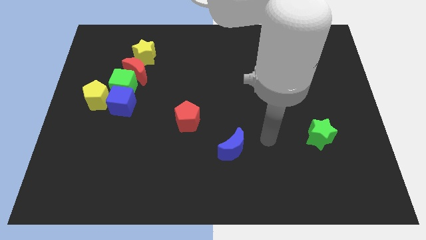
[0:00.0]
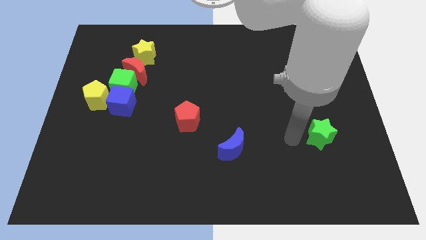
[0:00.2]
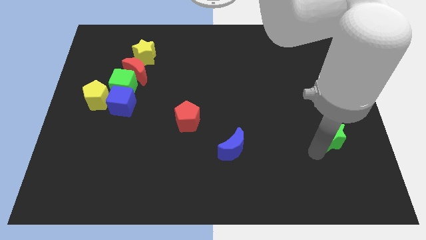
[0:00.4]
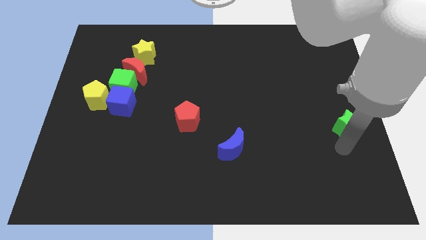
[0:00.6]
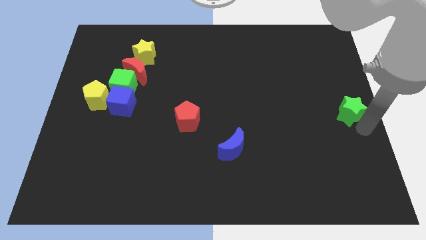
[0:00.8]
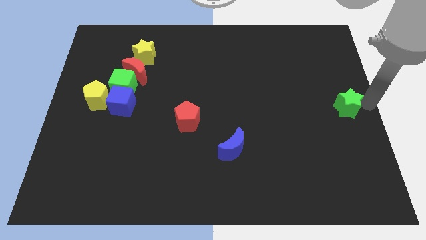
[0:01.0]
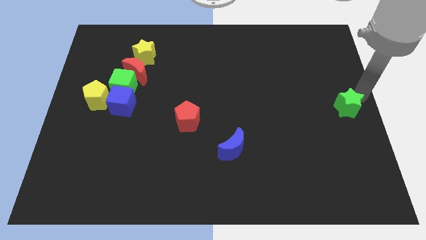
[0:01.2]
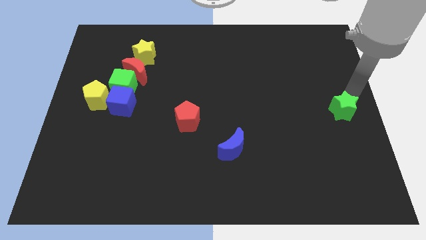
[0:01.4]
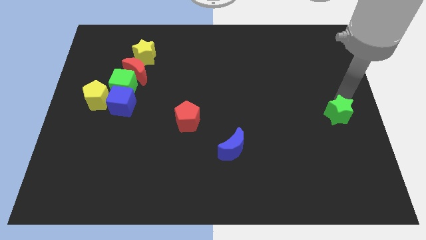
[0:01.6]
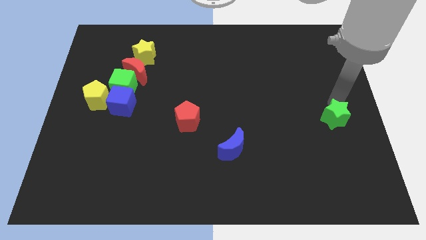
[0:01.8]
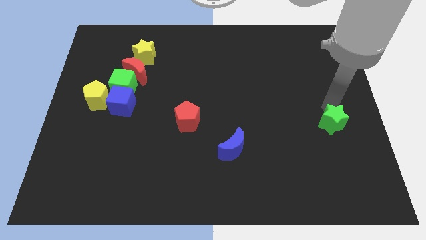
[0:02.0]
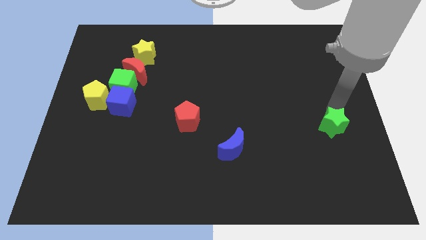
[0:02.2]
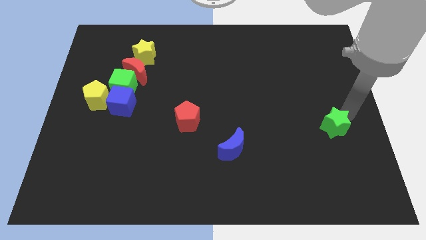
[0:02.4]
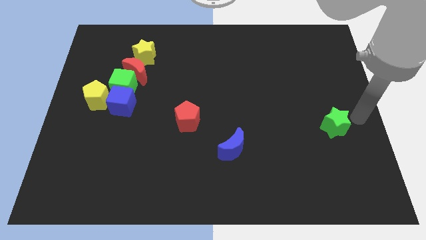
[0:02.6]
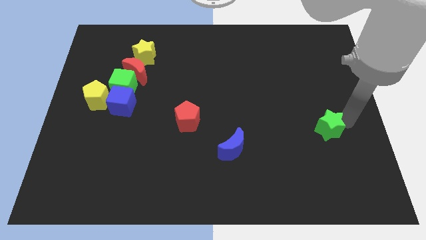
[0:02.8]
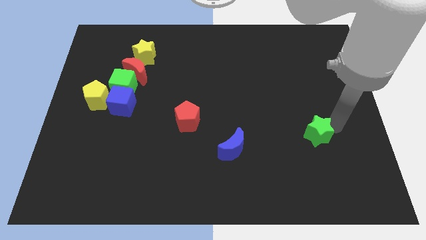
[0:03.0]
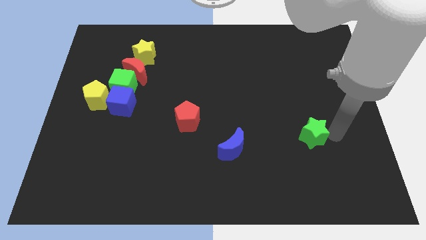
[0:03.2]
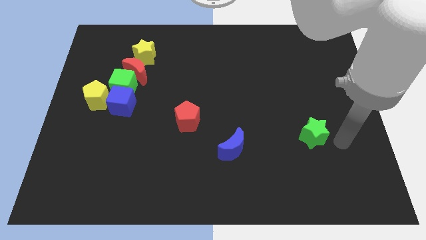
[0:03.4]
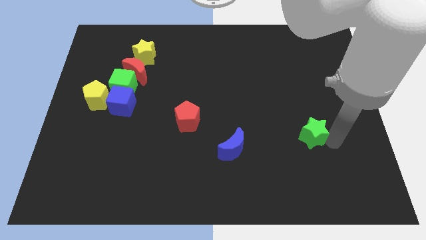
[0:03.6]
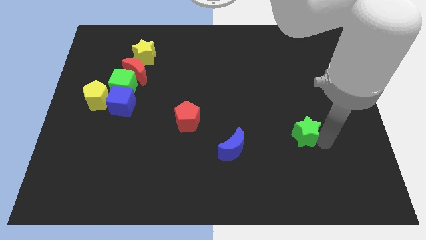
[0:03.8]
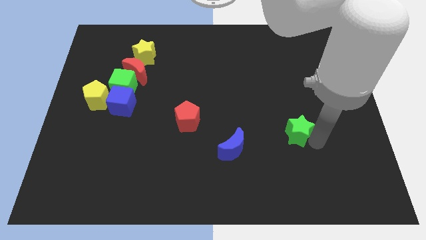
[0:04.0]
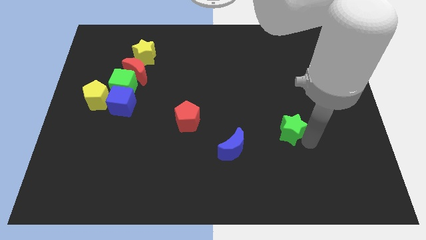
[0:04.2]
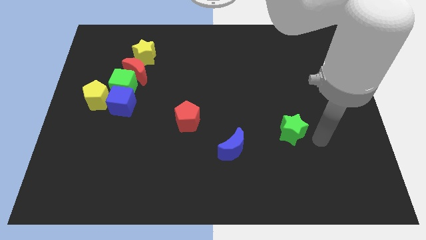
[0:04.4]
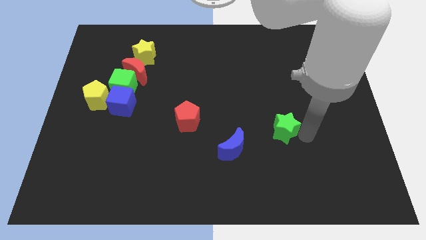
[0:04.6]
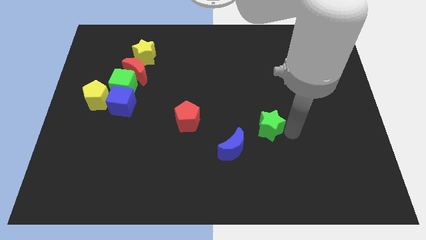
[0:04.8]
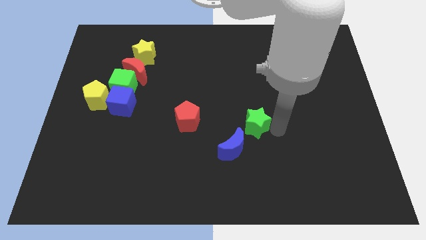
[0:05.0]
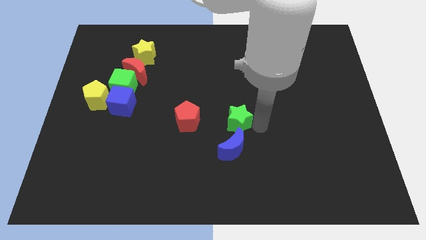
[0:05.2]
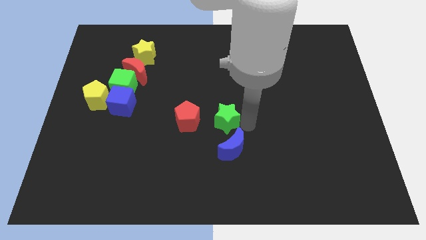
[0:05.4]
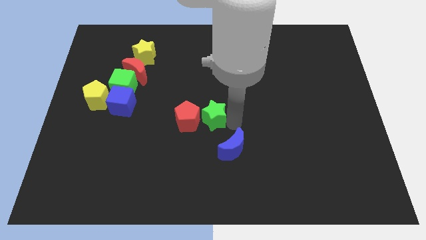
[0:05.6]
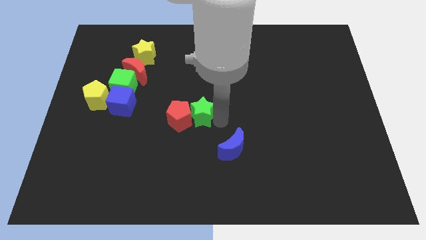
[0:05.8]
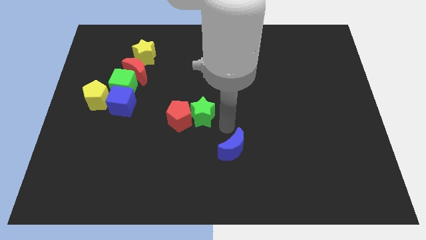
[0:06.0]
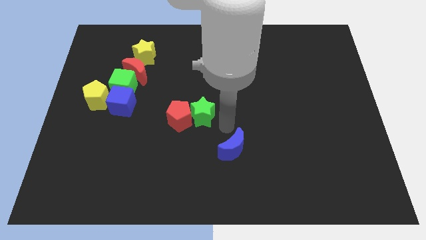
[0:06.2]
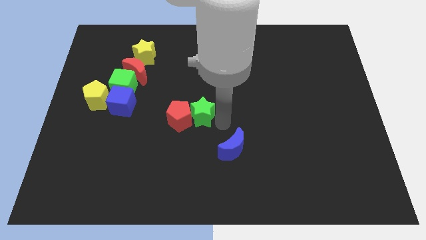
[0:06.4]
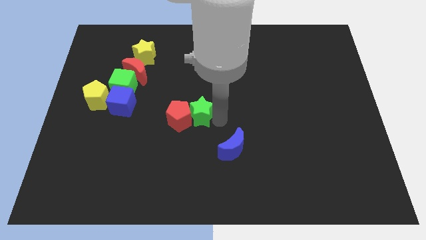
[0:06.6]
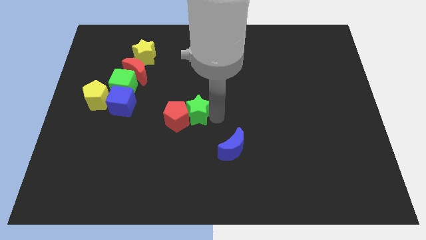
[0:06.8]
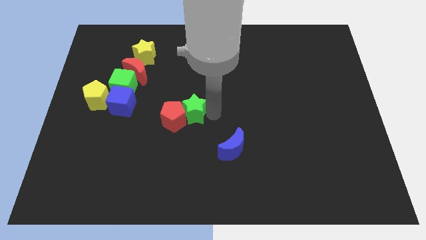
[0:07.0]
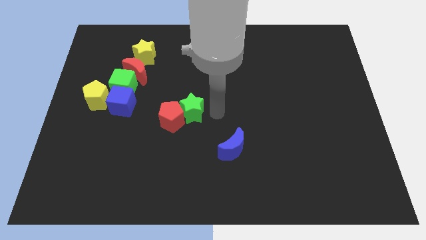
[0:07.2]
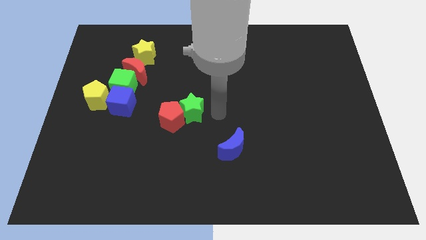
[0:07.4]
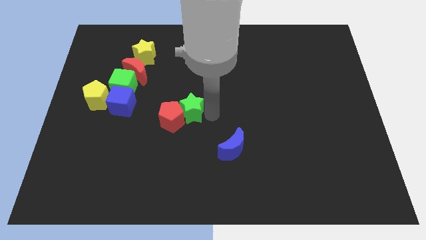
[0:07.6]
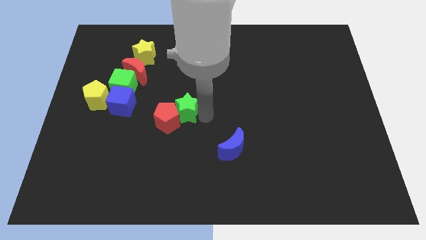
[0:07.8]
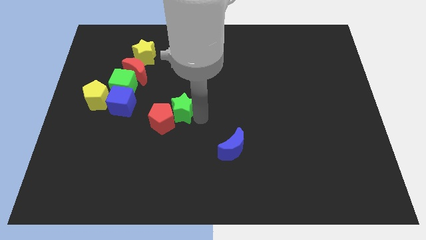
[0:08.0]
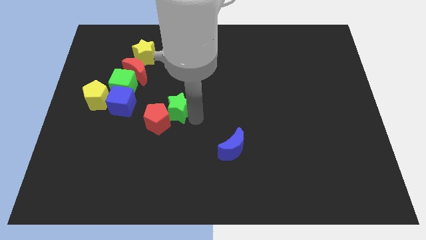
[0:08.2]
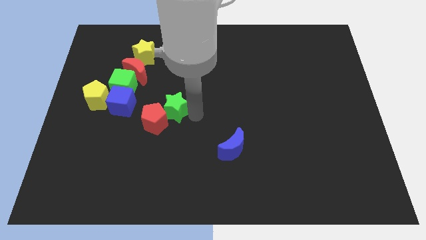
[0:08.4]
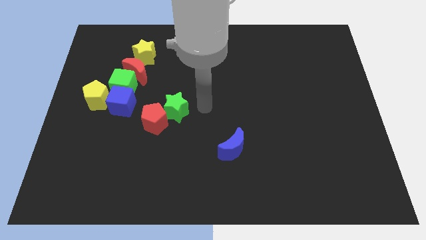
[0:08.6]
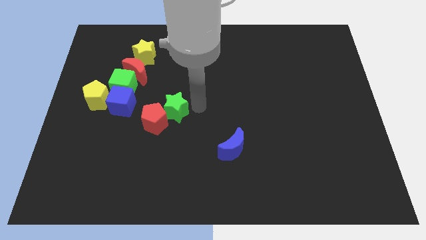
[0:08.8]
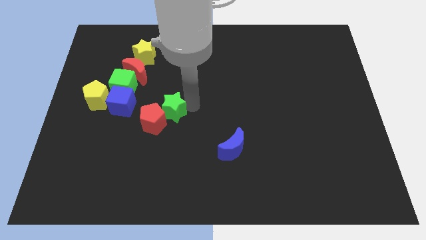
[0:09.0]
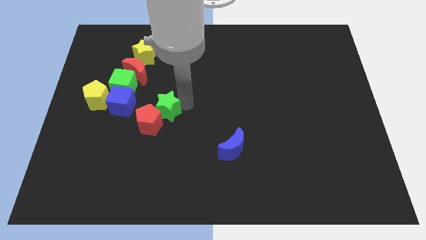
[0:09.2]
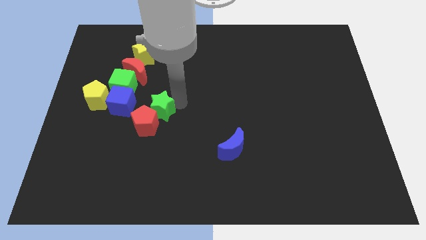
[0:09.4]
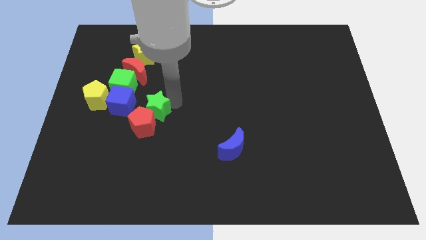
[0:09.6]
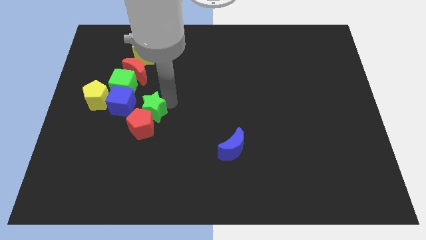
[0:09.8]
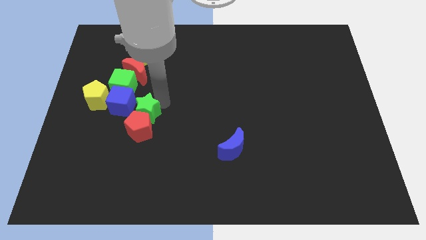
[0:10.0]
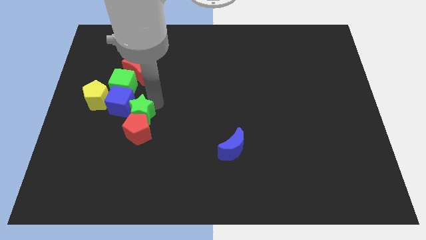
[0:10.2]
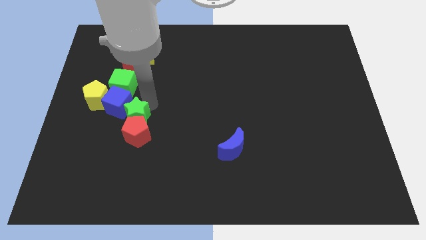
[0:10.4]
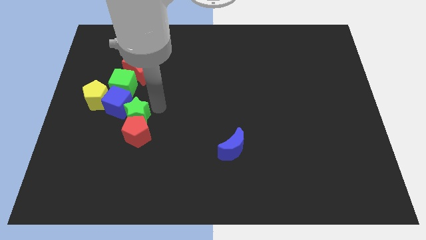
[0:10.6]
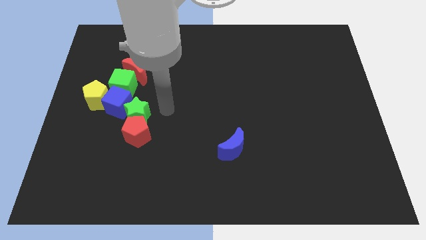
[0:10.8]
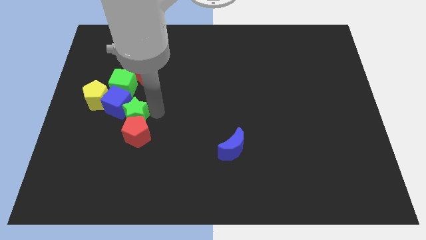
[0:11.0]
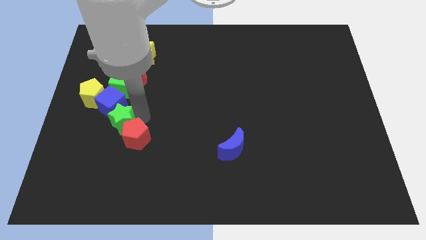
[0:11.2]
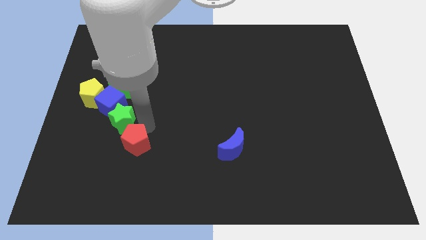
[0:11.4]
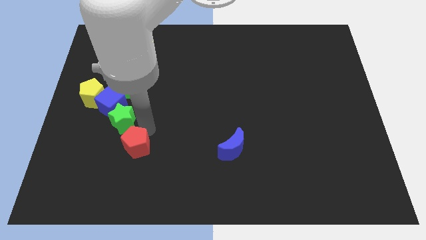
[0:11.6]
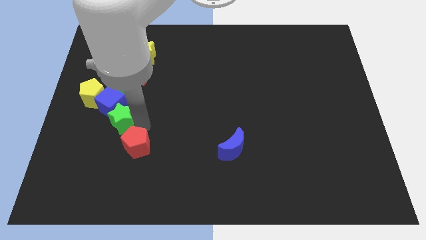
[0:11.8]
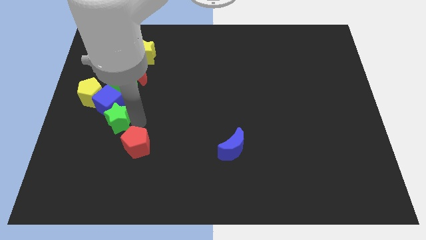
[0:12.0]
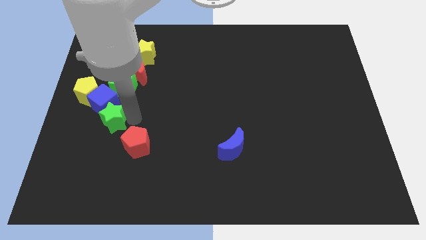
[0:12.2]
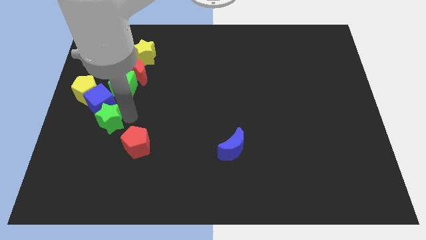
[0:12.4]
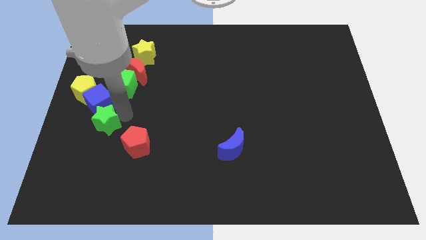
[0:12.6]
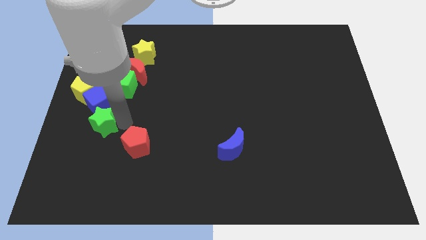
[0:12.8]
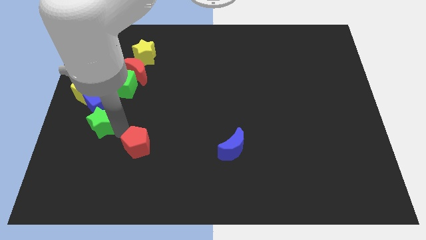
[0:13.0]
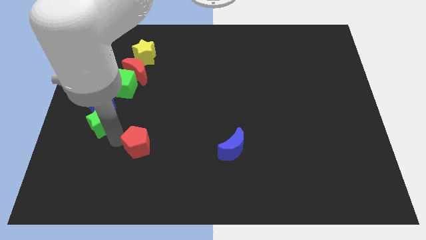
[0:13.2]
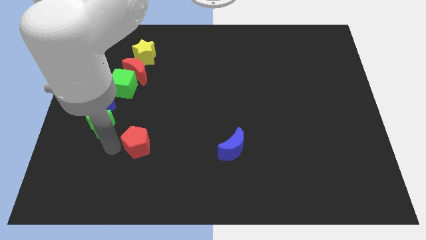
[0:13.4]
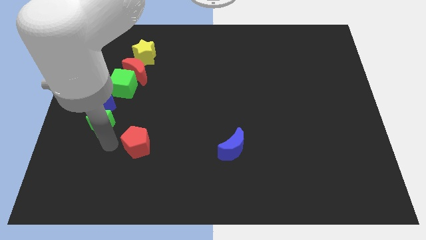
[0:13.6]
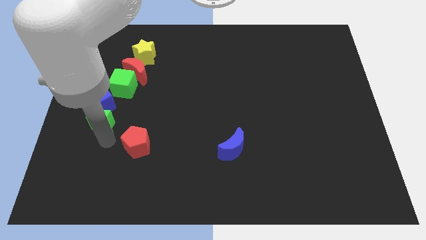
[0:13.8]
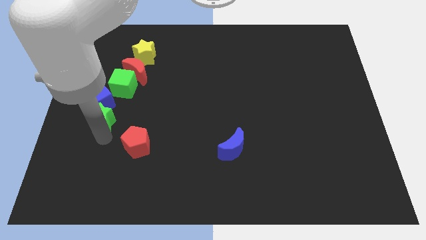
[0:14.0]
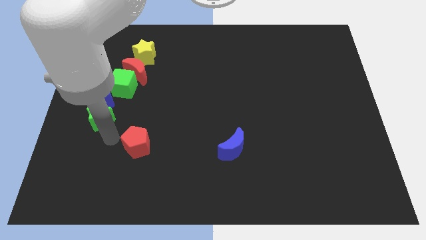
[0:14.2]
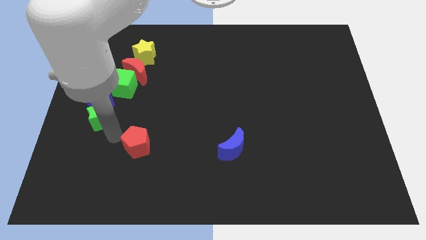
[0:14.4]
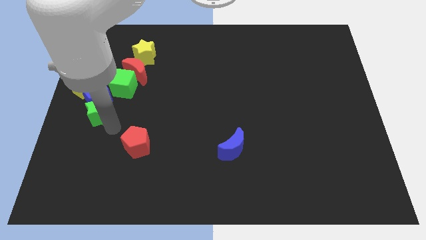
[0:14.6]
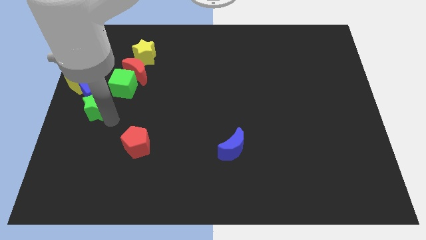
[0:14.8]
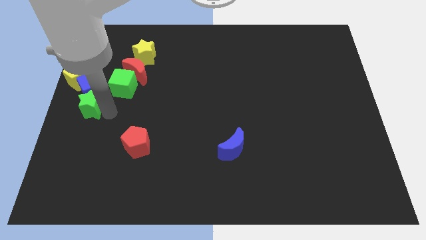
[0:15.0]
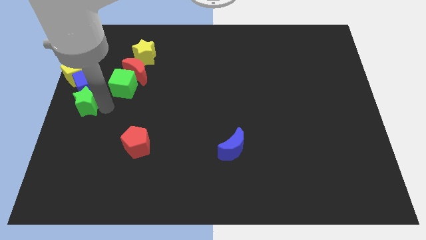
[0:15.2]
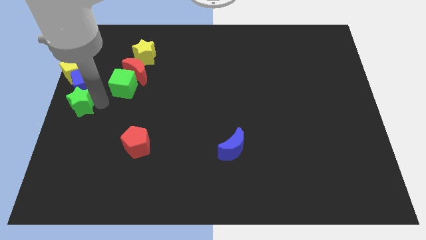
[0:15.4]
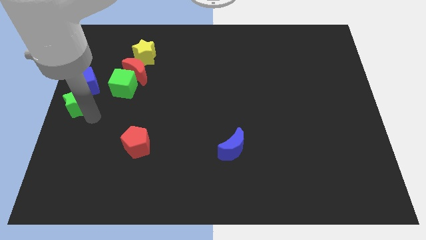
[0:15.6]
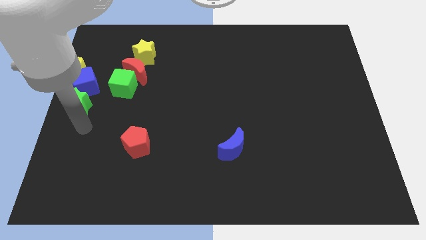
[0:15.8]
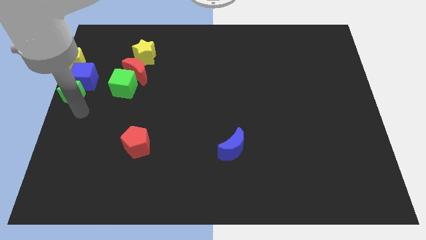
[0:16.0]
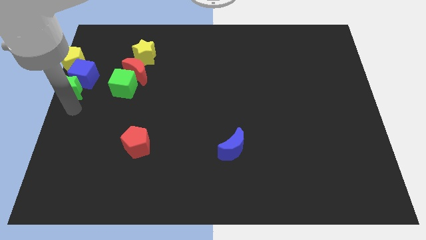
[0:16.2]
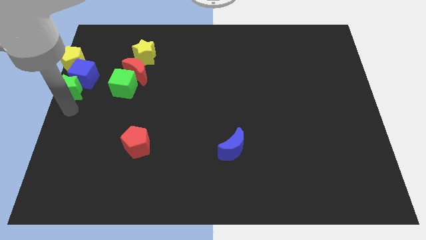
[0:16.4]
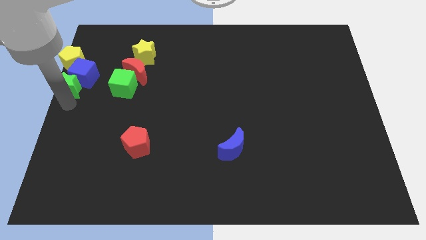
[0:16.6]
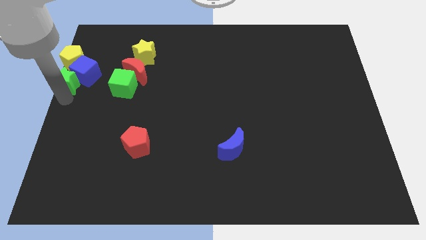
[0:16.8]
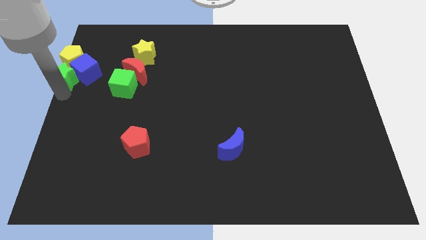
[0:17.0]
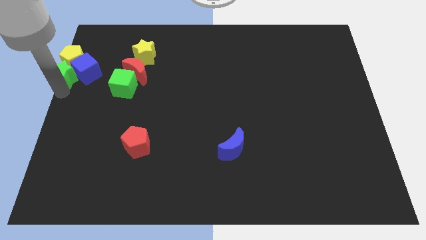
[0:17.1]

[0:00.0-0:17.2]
put the green star next to the yellow pentagon
